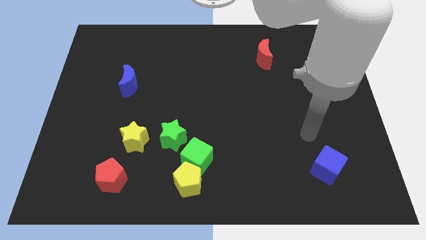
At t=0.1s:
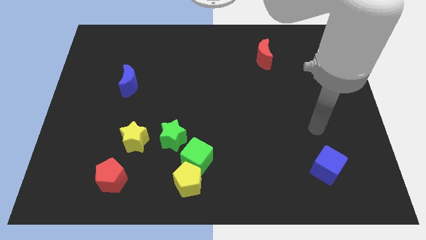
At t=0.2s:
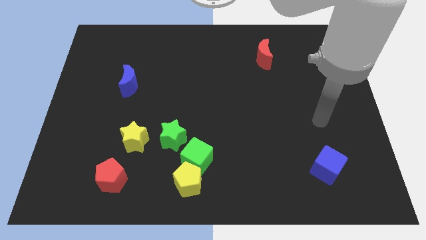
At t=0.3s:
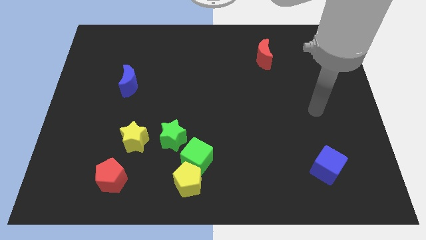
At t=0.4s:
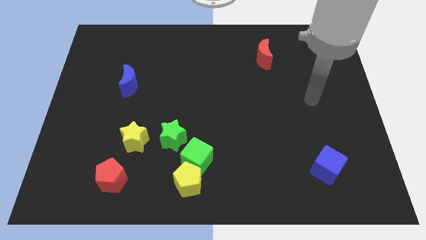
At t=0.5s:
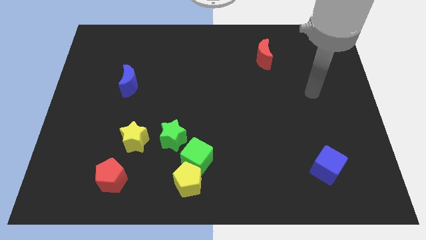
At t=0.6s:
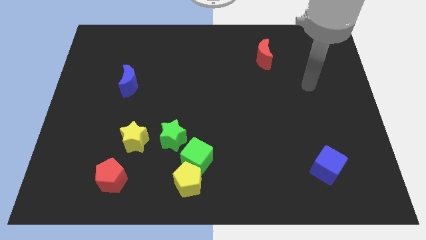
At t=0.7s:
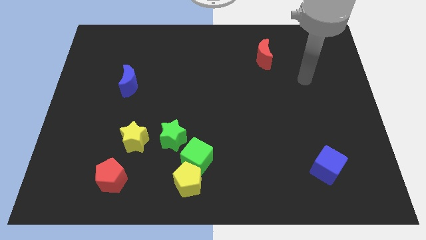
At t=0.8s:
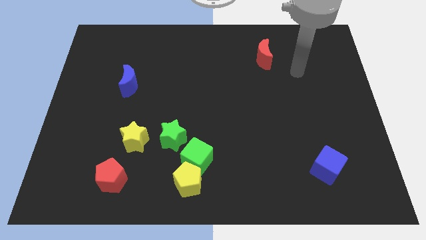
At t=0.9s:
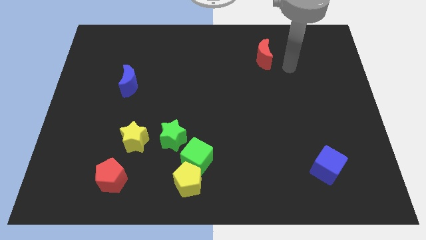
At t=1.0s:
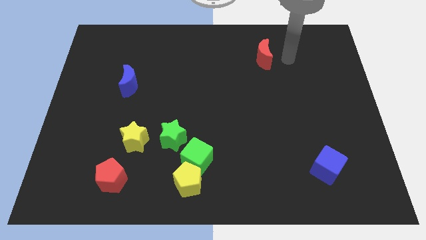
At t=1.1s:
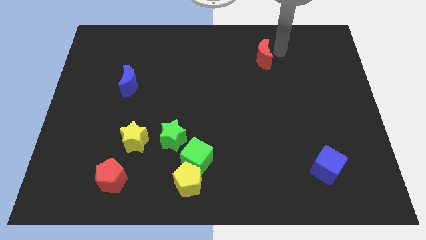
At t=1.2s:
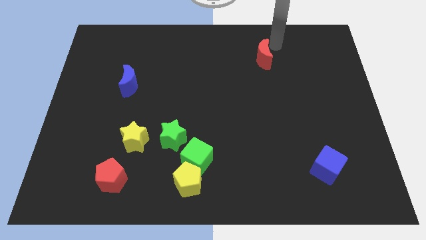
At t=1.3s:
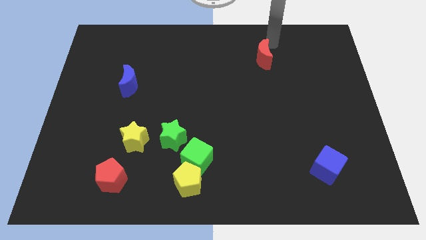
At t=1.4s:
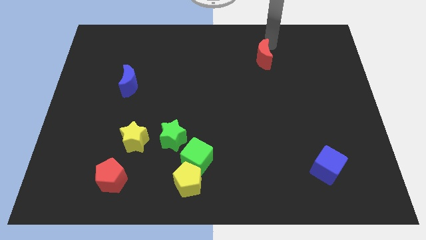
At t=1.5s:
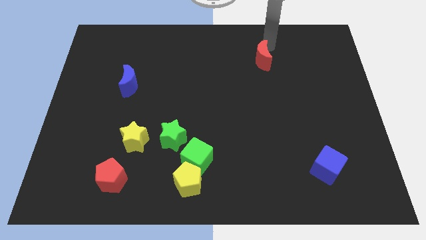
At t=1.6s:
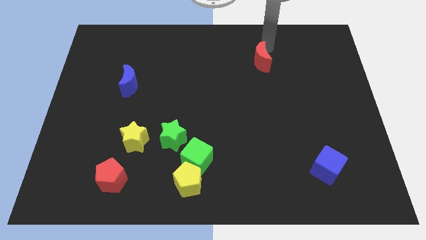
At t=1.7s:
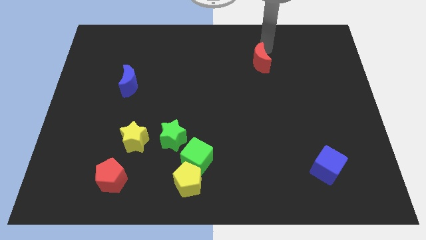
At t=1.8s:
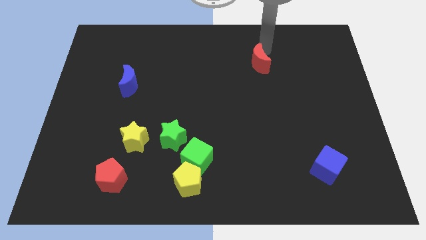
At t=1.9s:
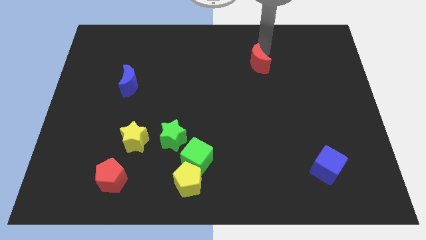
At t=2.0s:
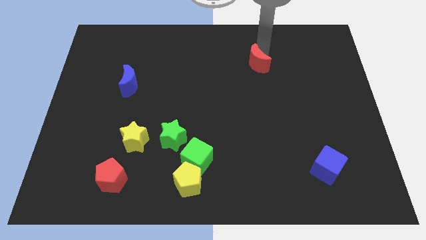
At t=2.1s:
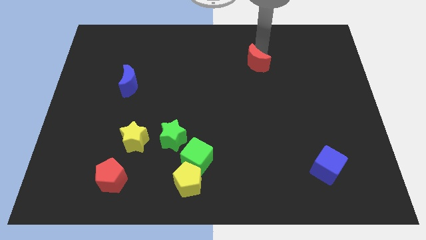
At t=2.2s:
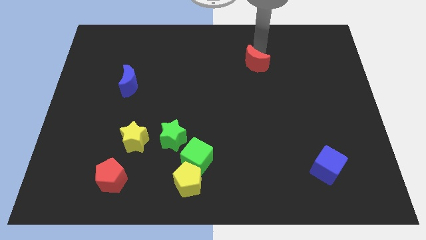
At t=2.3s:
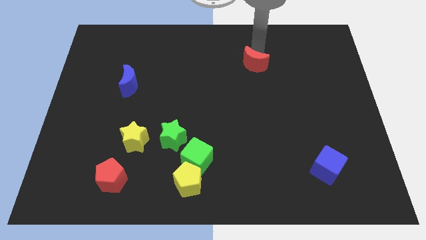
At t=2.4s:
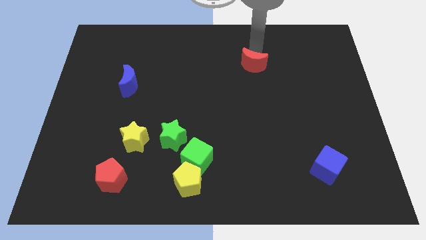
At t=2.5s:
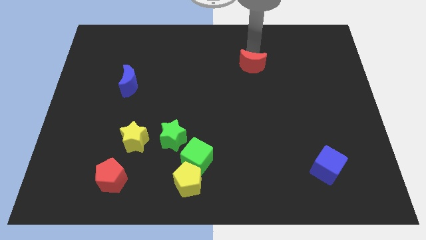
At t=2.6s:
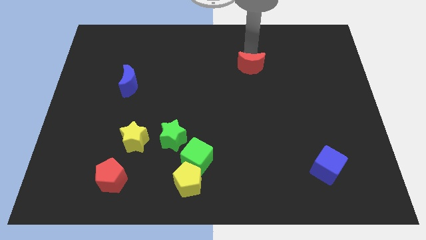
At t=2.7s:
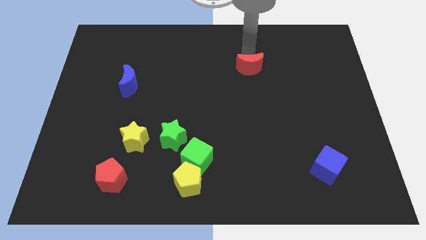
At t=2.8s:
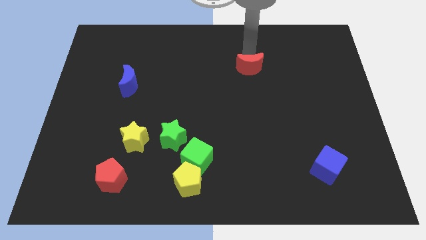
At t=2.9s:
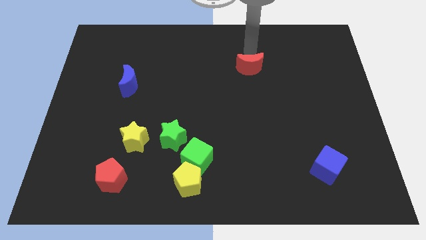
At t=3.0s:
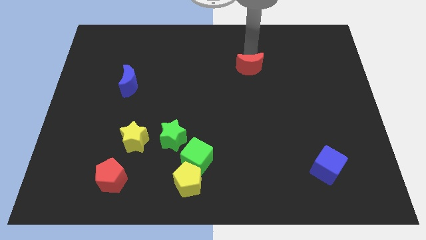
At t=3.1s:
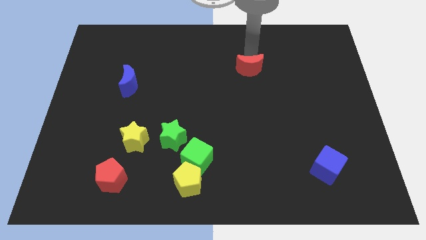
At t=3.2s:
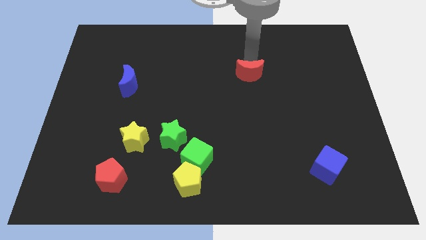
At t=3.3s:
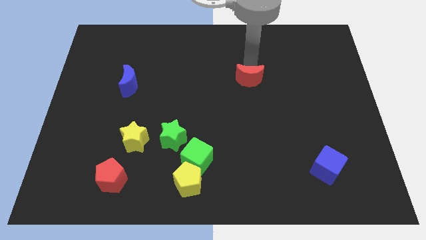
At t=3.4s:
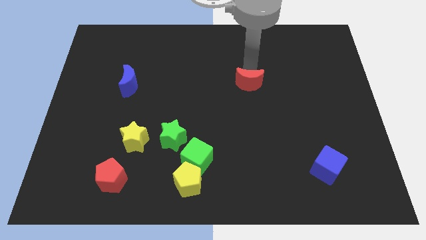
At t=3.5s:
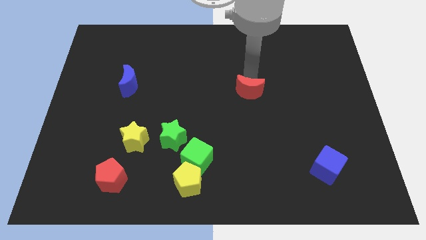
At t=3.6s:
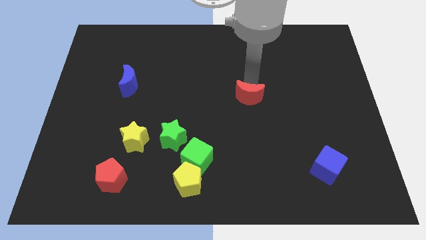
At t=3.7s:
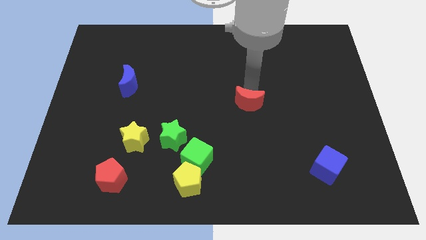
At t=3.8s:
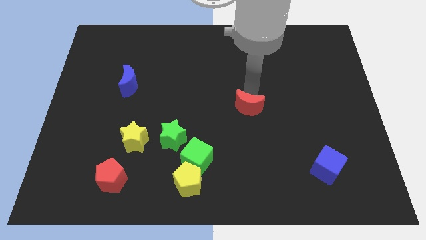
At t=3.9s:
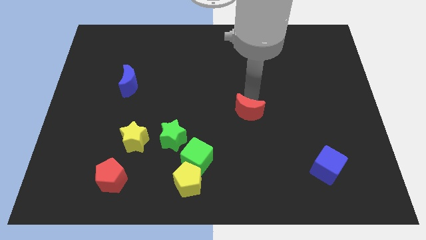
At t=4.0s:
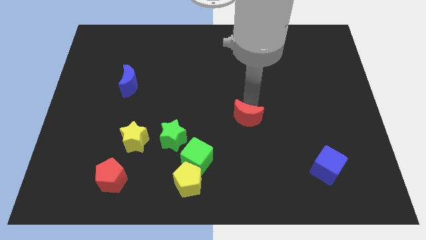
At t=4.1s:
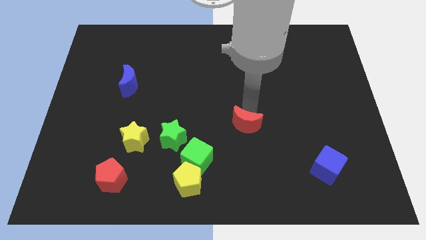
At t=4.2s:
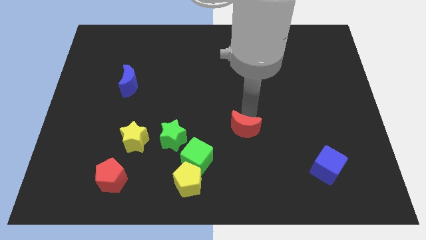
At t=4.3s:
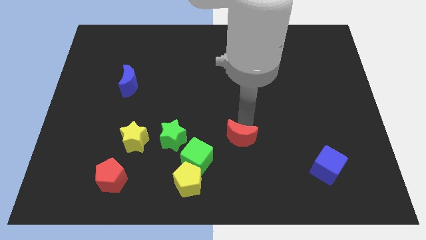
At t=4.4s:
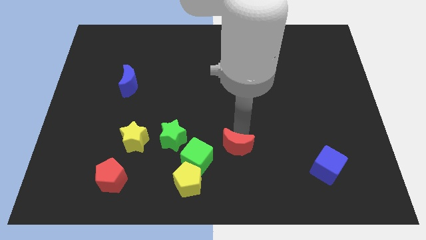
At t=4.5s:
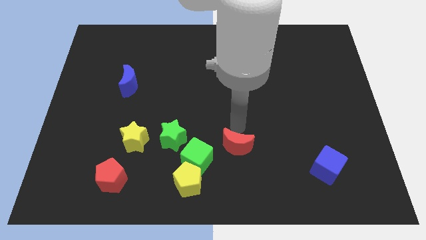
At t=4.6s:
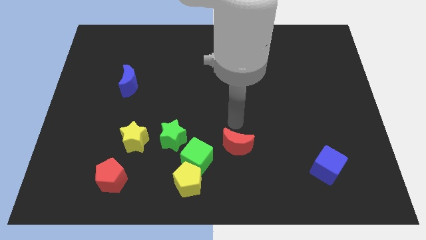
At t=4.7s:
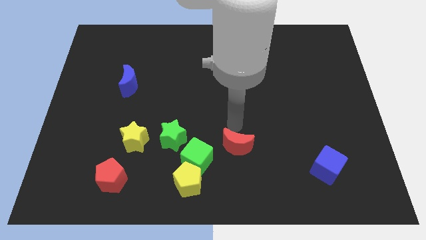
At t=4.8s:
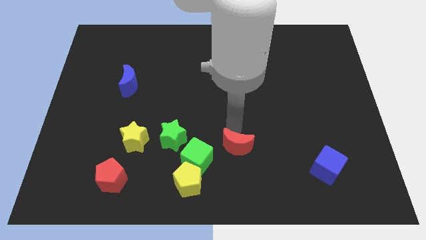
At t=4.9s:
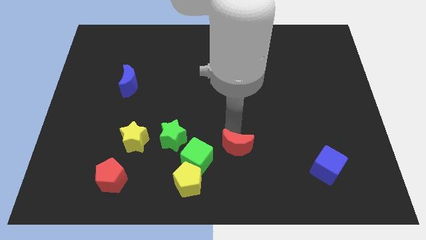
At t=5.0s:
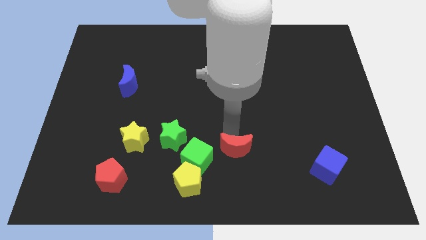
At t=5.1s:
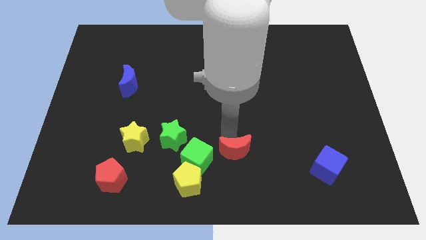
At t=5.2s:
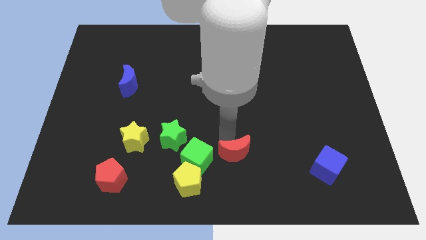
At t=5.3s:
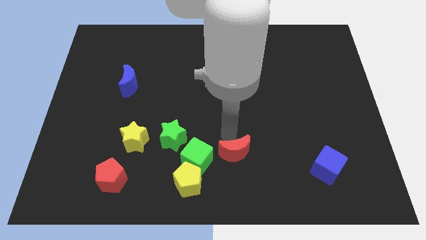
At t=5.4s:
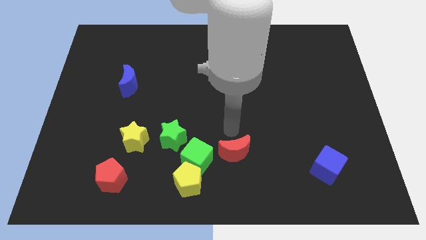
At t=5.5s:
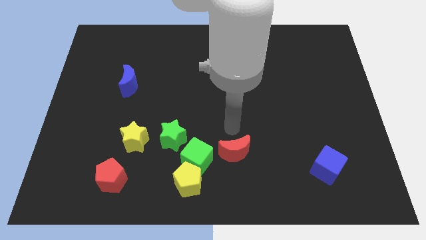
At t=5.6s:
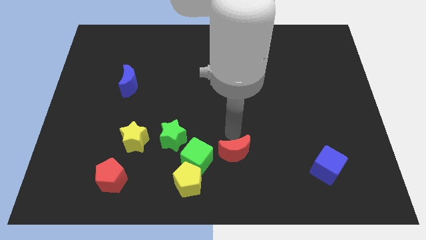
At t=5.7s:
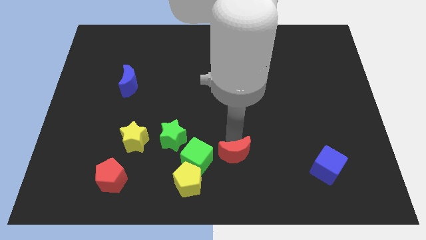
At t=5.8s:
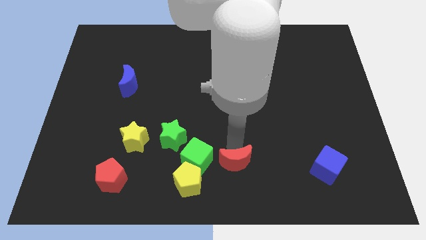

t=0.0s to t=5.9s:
move the red moon just right of the yellow pentagon

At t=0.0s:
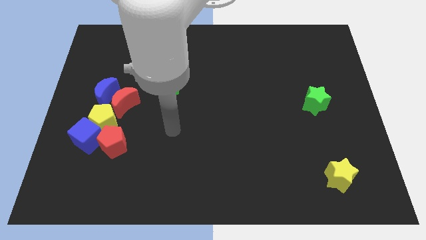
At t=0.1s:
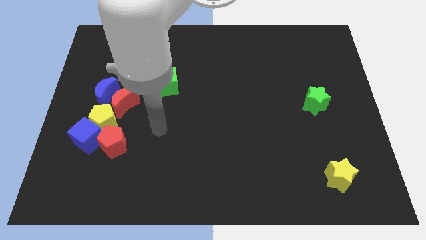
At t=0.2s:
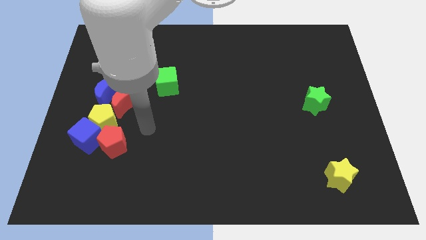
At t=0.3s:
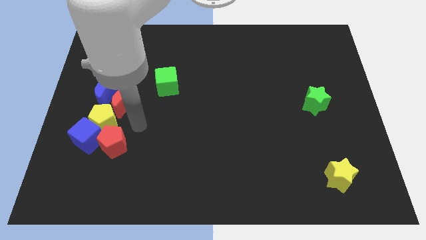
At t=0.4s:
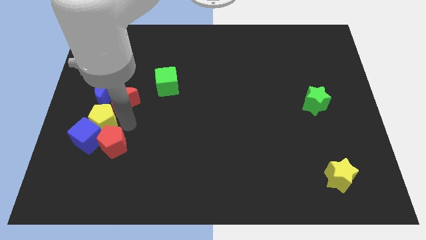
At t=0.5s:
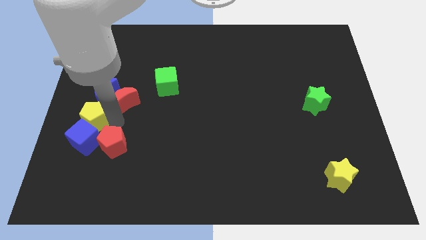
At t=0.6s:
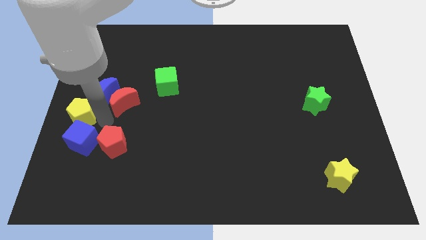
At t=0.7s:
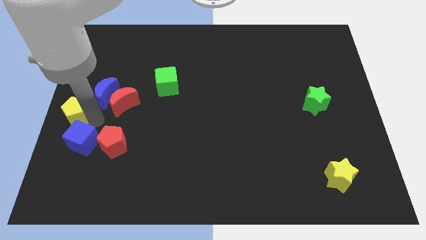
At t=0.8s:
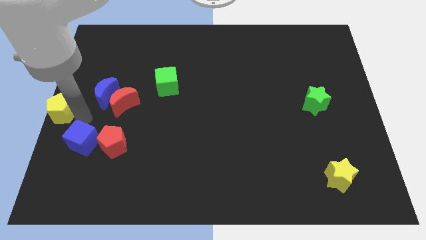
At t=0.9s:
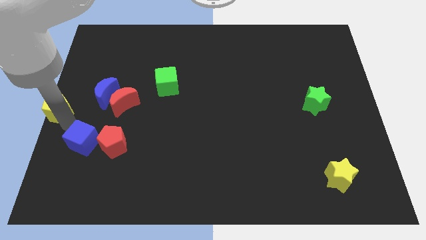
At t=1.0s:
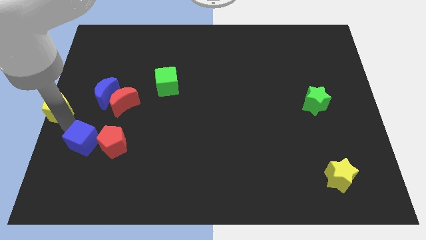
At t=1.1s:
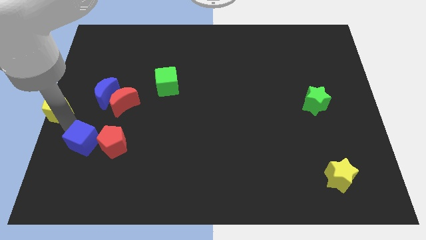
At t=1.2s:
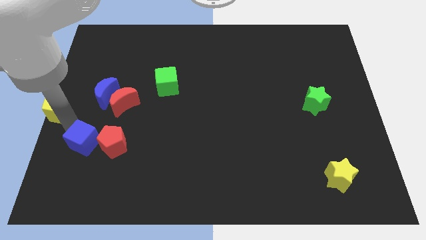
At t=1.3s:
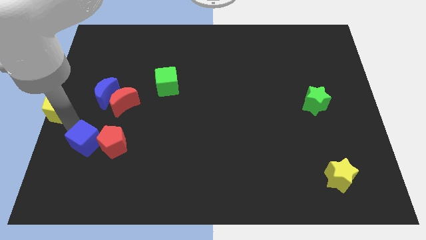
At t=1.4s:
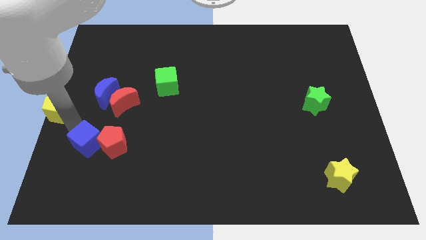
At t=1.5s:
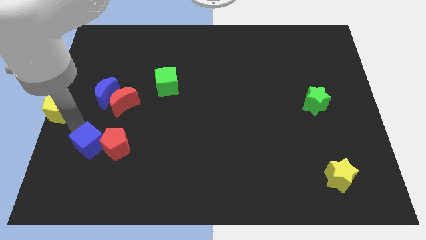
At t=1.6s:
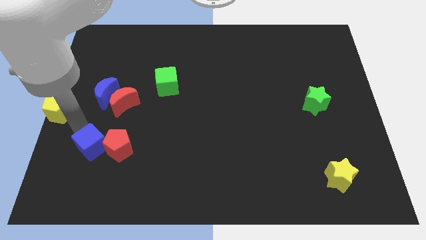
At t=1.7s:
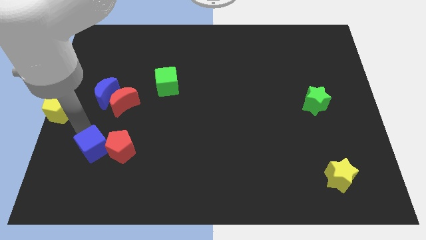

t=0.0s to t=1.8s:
slide the blue cube to the bottom side of the red moon
